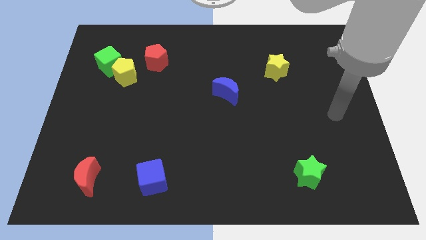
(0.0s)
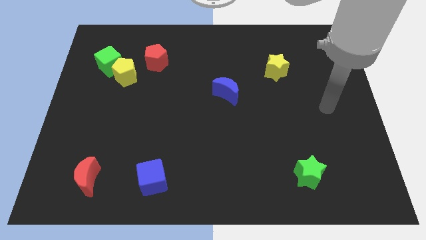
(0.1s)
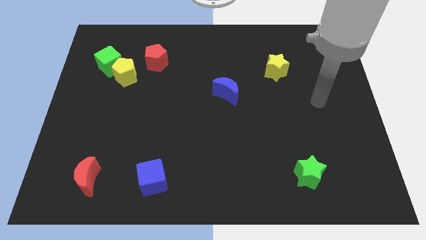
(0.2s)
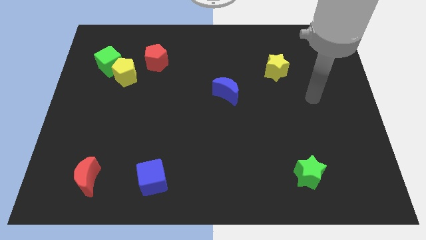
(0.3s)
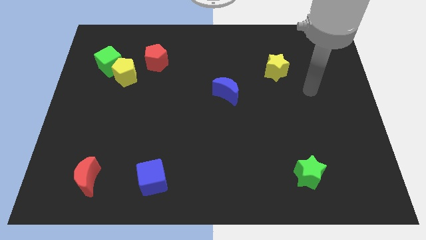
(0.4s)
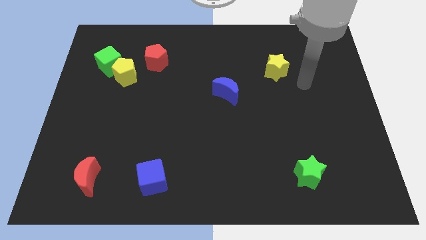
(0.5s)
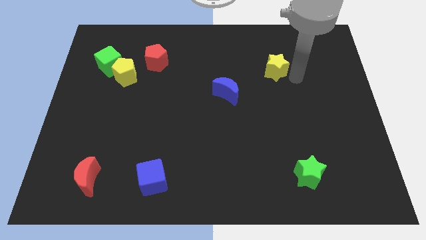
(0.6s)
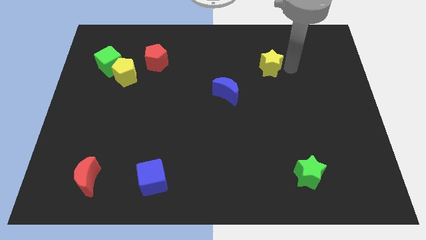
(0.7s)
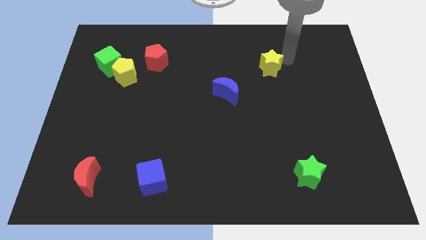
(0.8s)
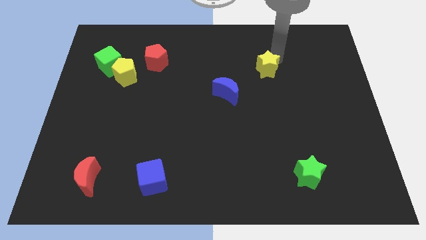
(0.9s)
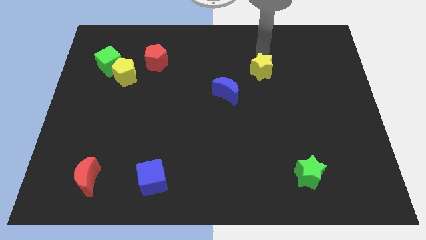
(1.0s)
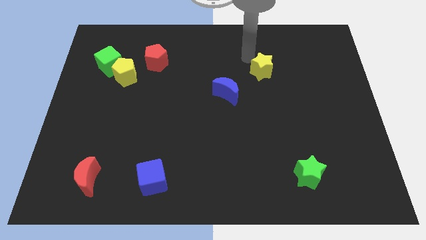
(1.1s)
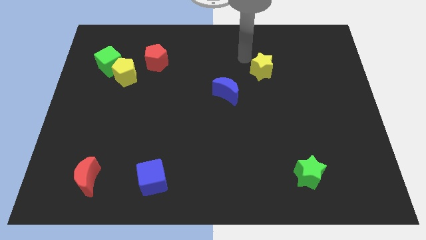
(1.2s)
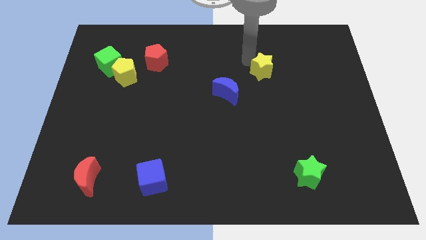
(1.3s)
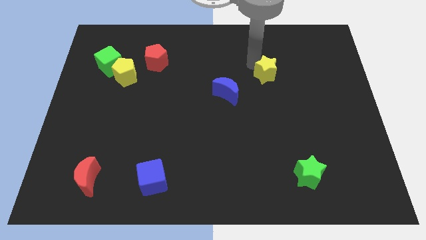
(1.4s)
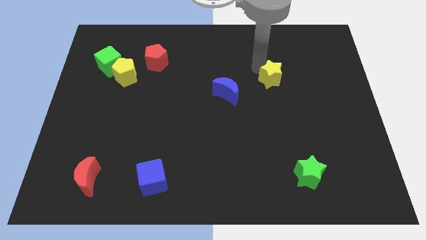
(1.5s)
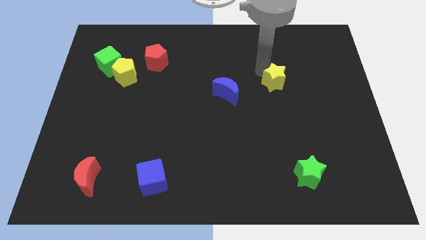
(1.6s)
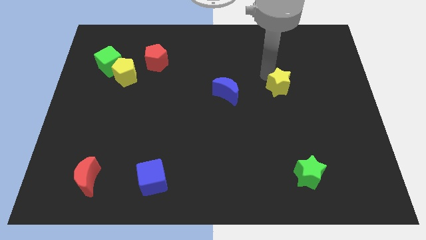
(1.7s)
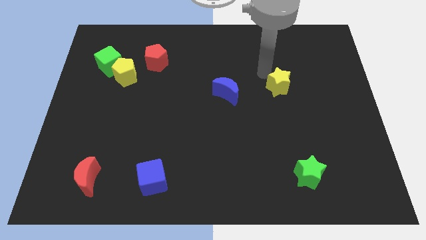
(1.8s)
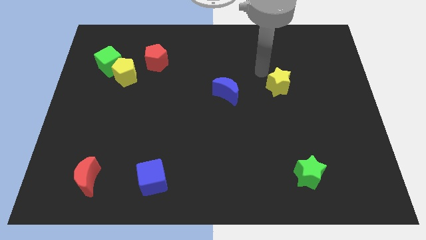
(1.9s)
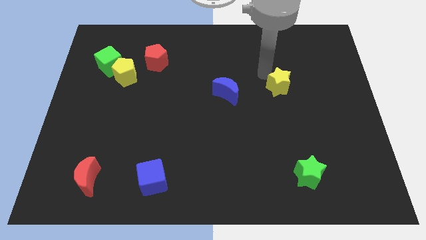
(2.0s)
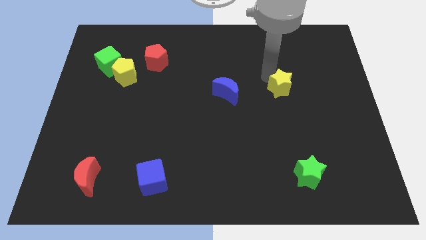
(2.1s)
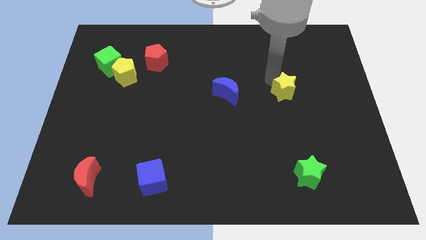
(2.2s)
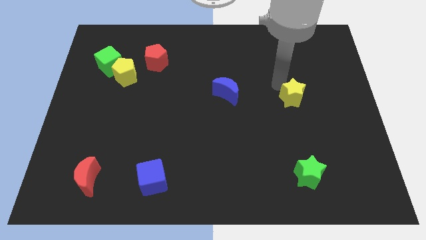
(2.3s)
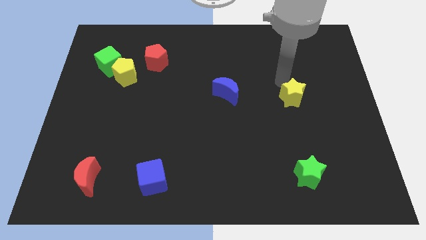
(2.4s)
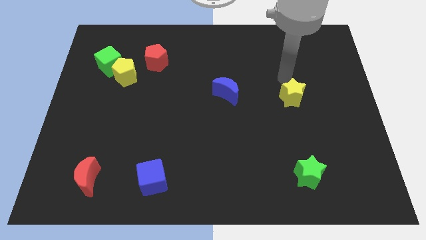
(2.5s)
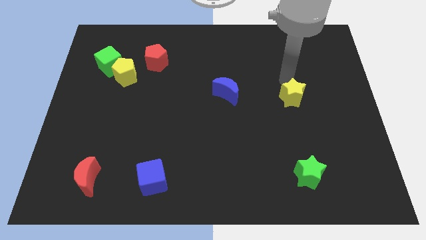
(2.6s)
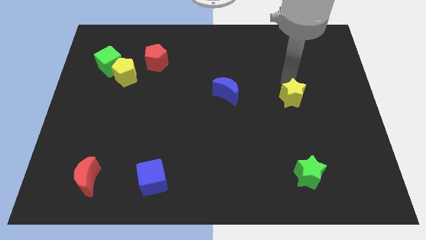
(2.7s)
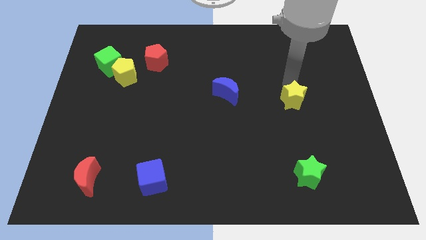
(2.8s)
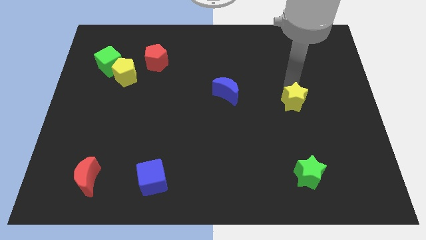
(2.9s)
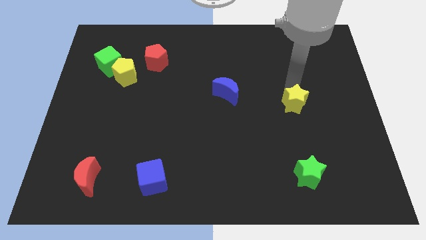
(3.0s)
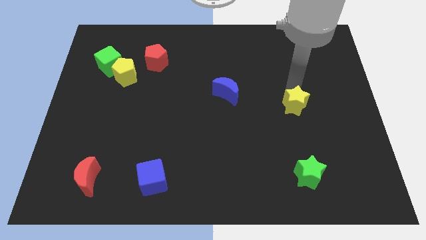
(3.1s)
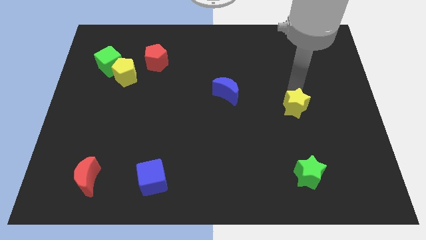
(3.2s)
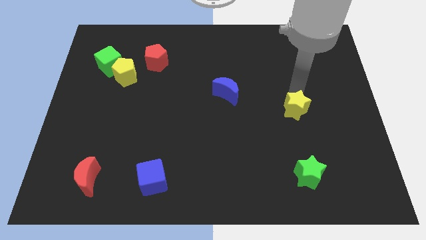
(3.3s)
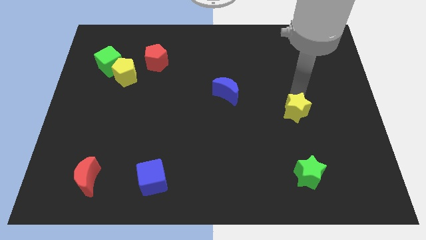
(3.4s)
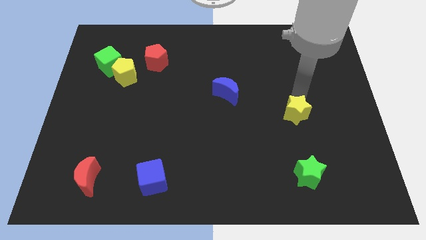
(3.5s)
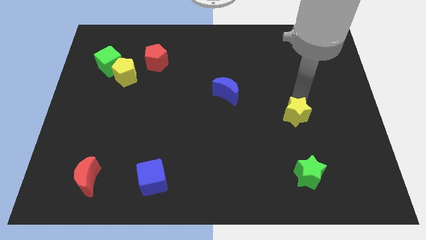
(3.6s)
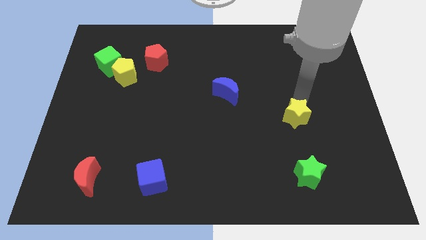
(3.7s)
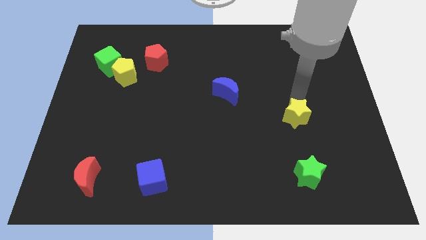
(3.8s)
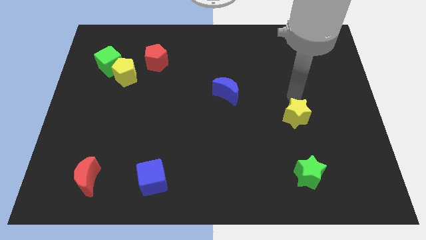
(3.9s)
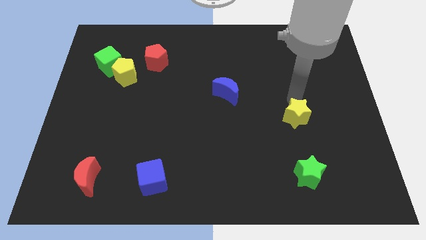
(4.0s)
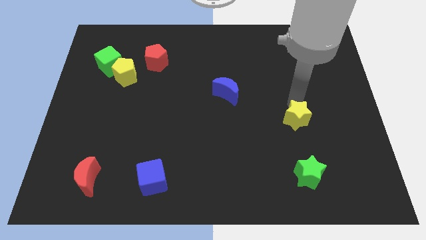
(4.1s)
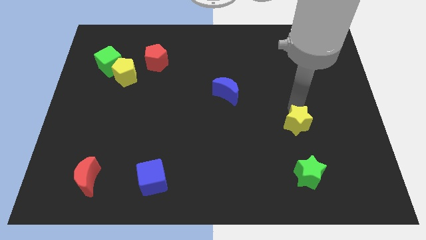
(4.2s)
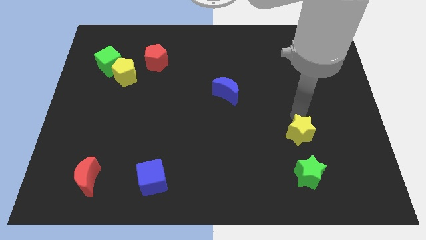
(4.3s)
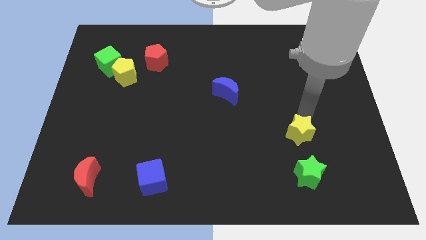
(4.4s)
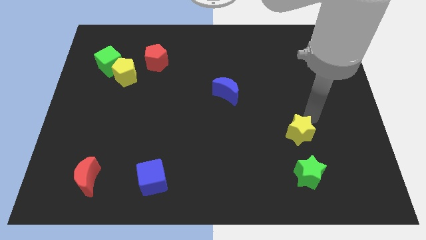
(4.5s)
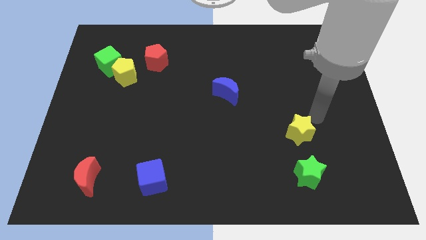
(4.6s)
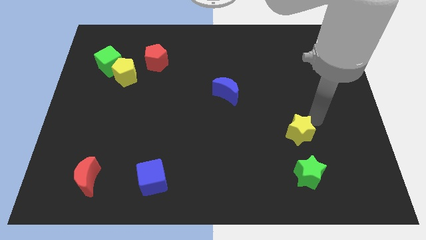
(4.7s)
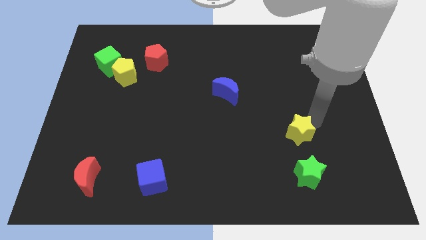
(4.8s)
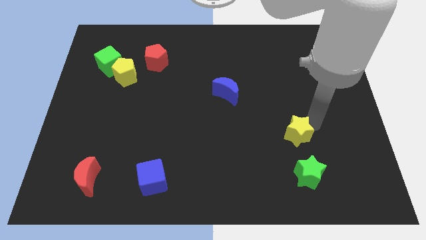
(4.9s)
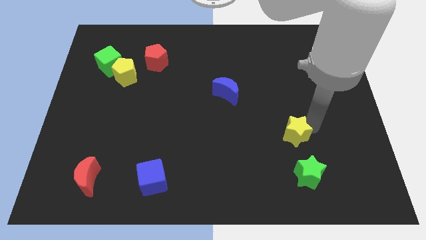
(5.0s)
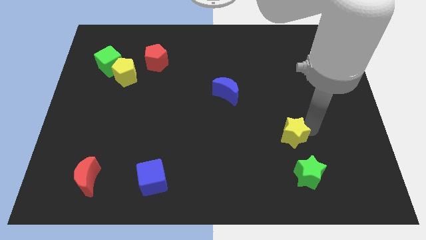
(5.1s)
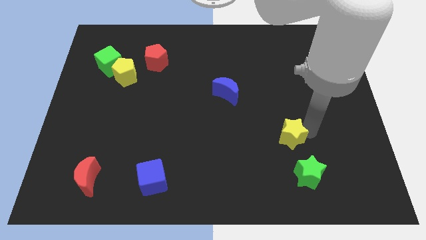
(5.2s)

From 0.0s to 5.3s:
push the yellow star to the top left side of the green star

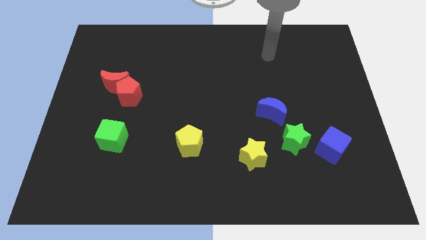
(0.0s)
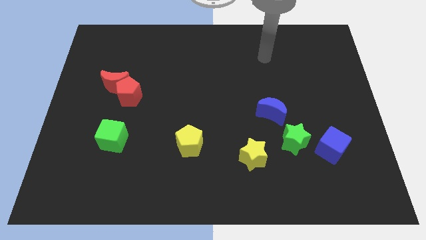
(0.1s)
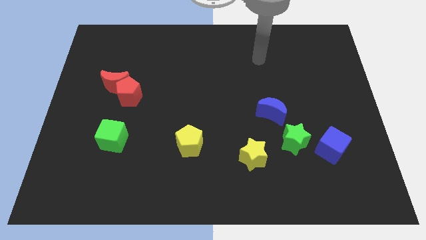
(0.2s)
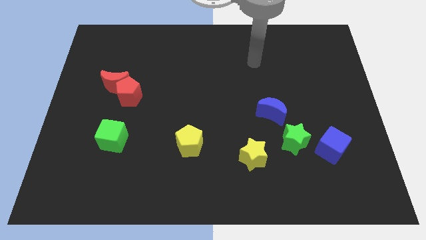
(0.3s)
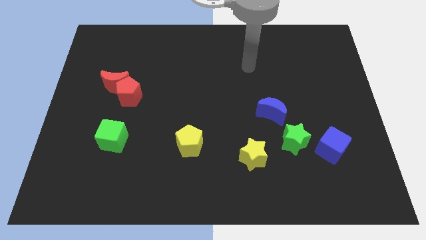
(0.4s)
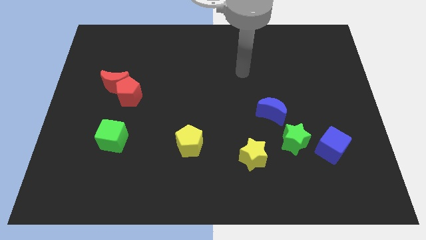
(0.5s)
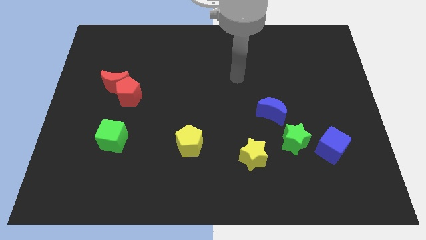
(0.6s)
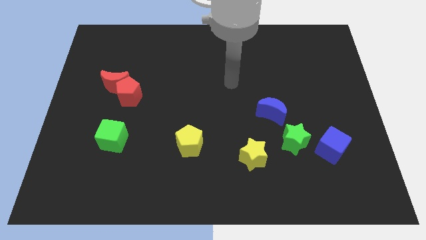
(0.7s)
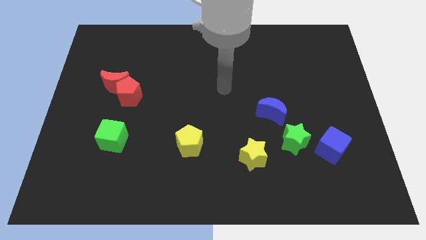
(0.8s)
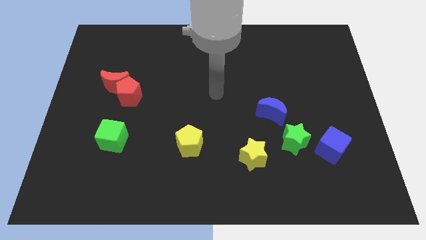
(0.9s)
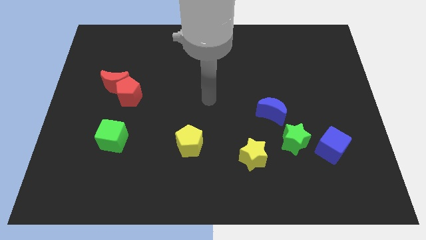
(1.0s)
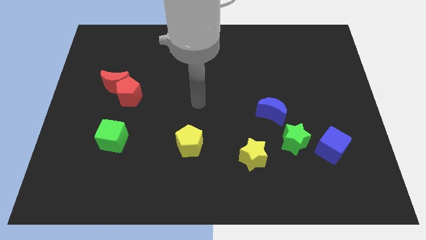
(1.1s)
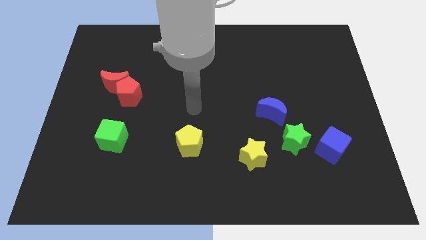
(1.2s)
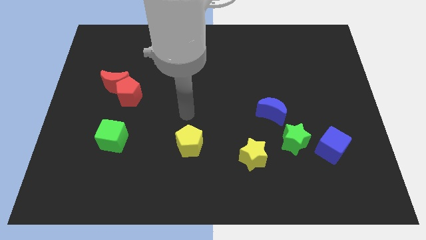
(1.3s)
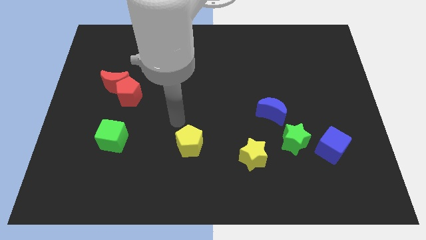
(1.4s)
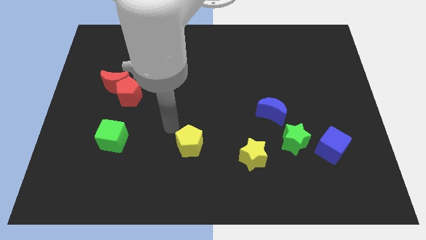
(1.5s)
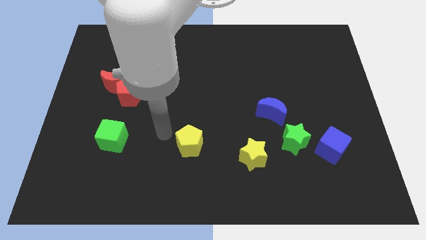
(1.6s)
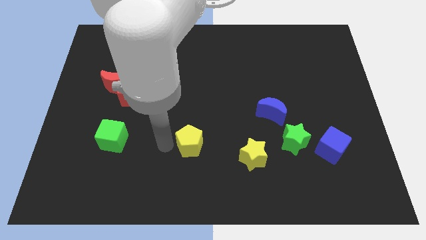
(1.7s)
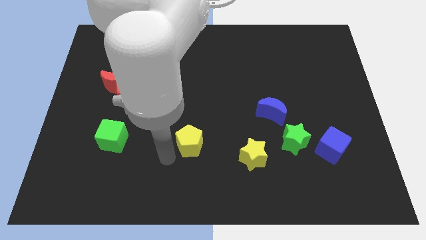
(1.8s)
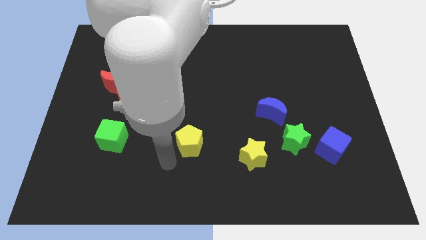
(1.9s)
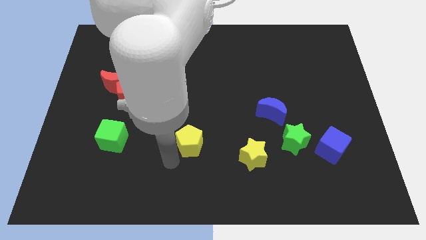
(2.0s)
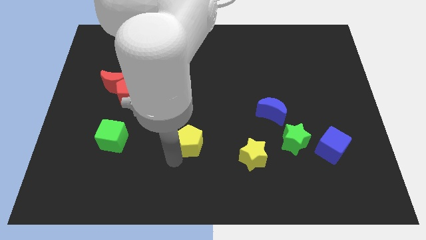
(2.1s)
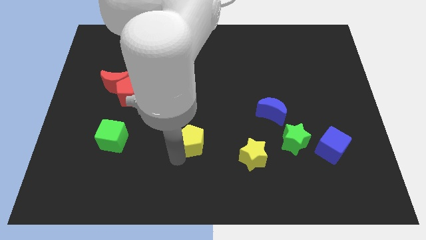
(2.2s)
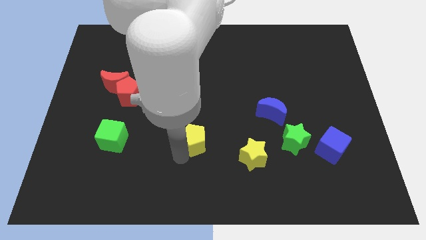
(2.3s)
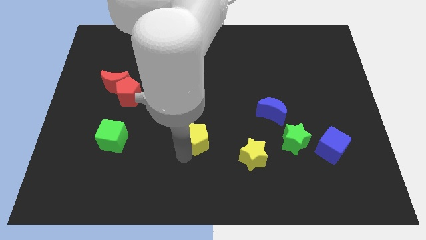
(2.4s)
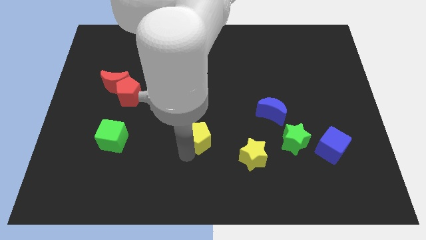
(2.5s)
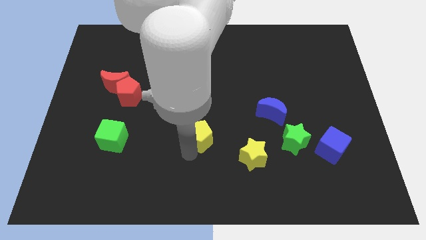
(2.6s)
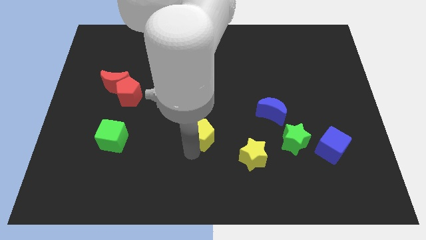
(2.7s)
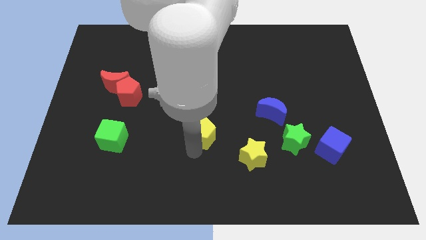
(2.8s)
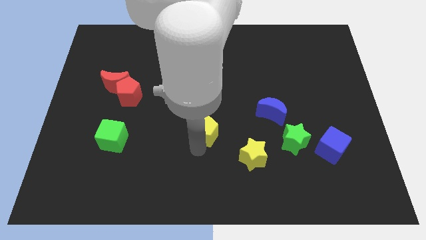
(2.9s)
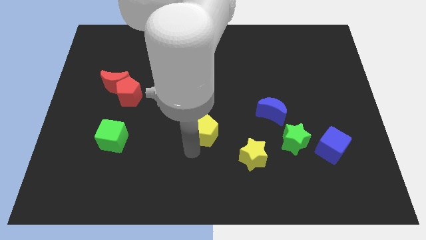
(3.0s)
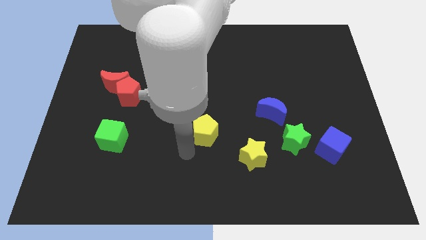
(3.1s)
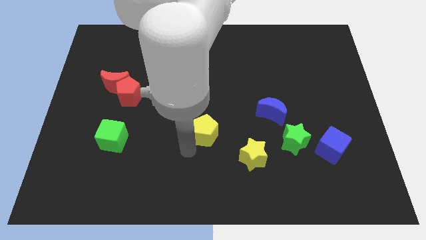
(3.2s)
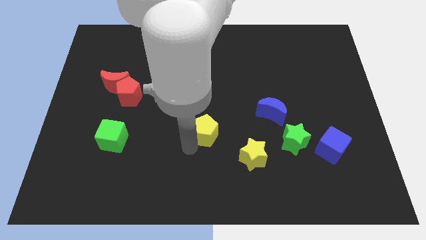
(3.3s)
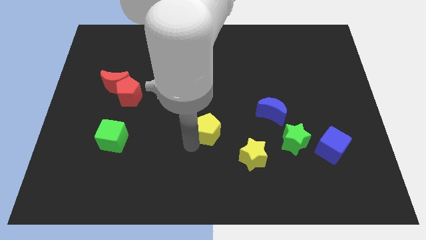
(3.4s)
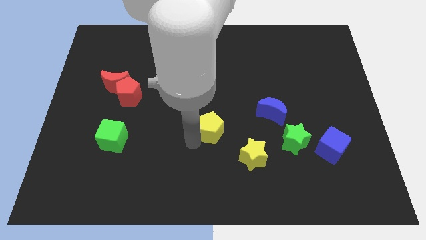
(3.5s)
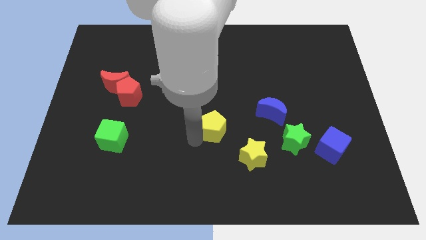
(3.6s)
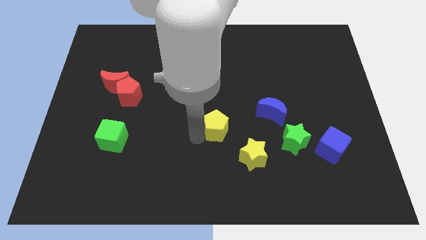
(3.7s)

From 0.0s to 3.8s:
move the yellow pentagon to the left of the blue moon
